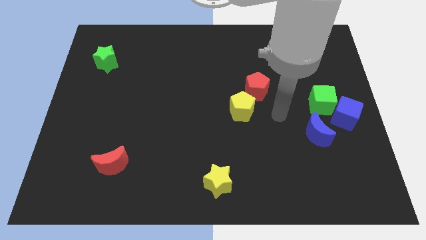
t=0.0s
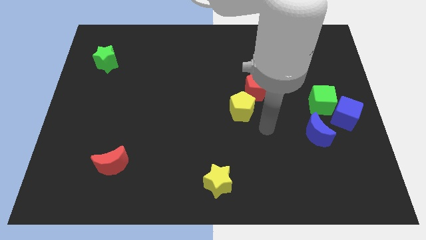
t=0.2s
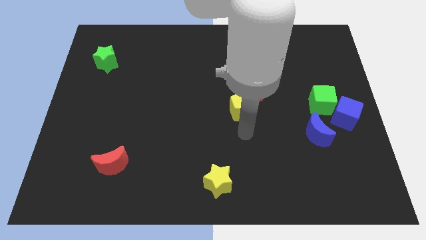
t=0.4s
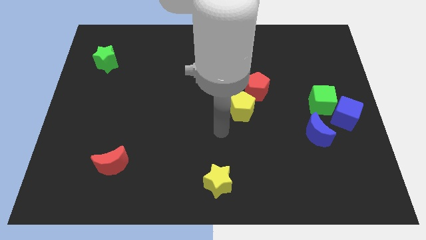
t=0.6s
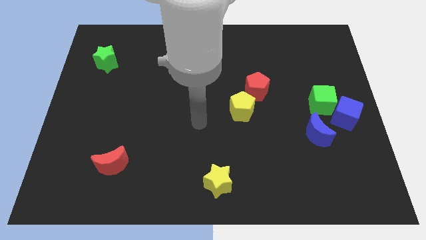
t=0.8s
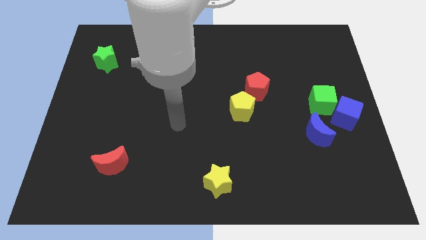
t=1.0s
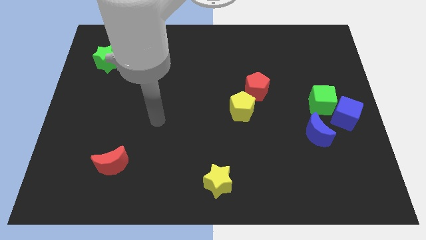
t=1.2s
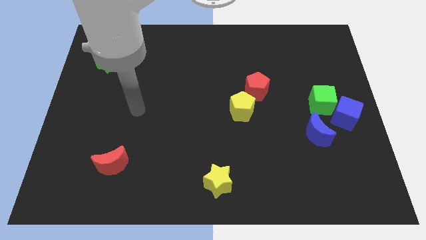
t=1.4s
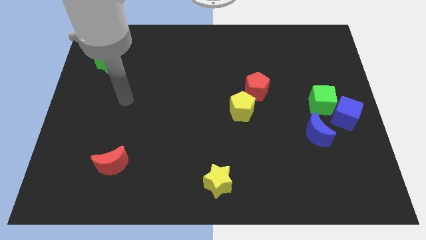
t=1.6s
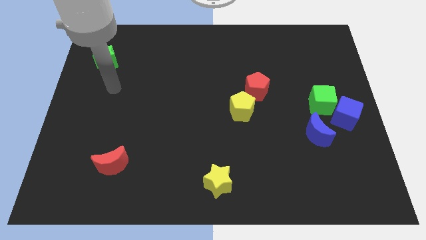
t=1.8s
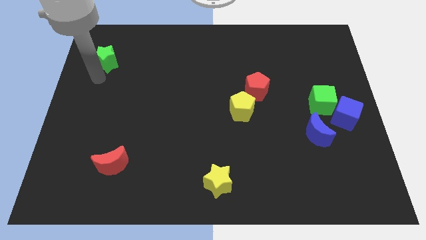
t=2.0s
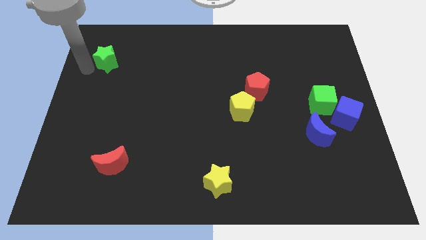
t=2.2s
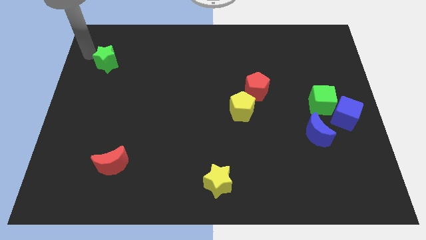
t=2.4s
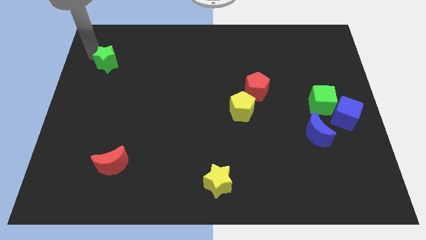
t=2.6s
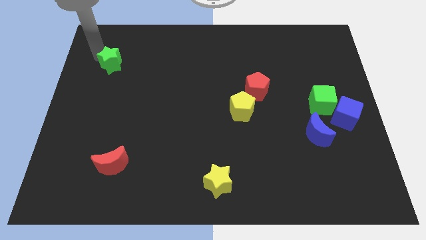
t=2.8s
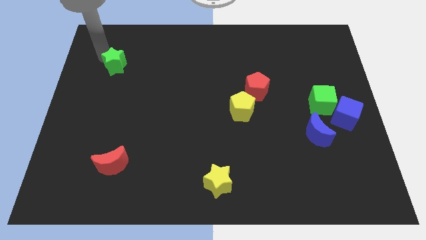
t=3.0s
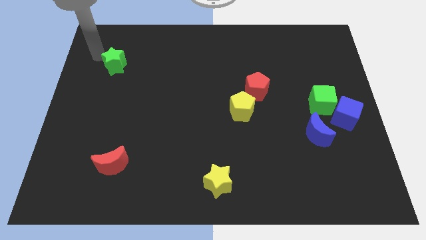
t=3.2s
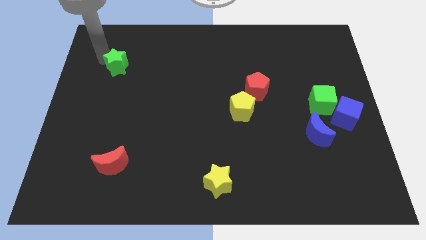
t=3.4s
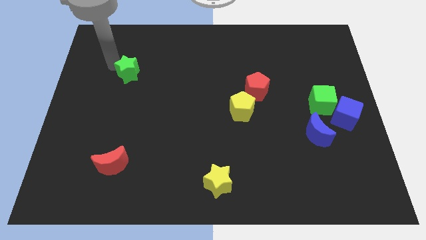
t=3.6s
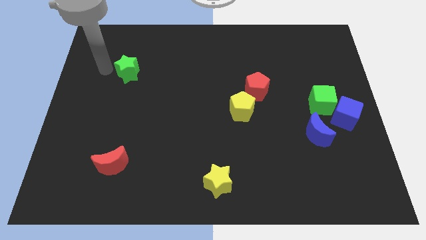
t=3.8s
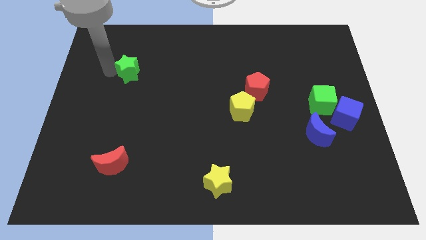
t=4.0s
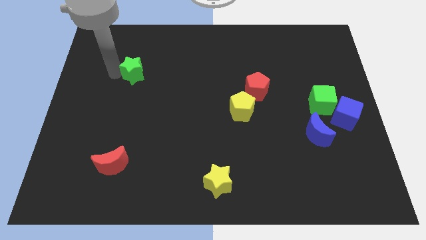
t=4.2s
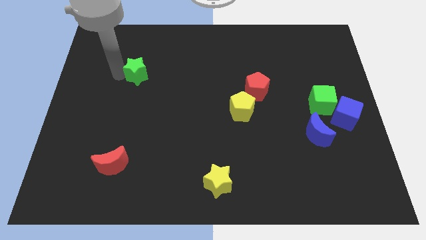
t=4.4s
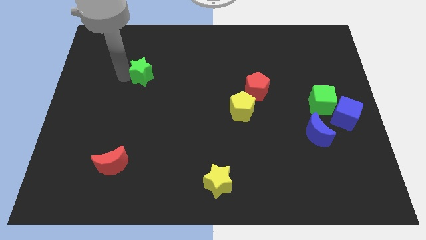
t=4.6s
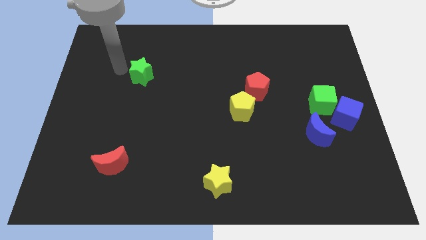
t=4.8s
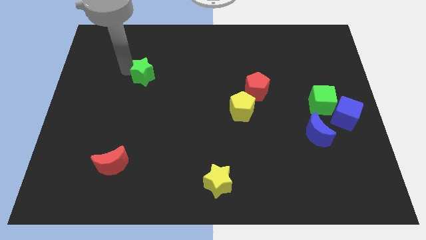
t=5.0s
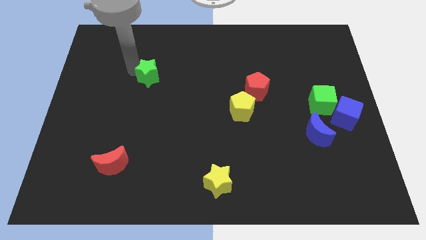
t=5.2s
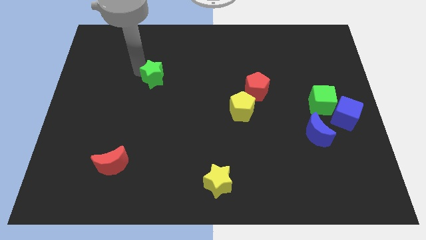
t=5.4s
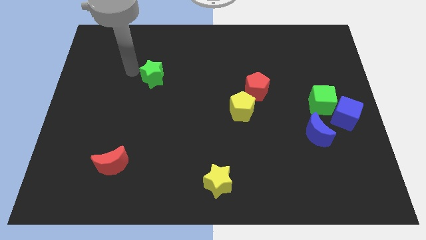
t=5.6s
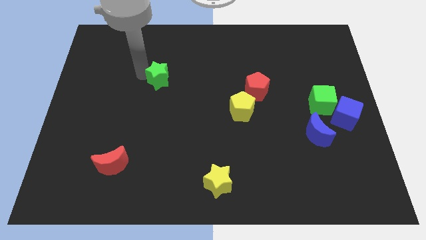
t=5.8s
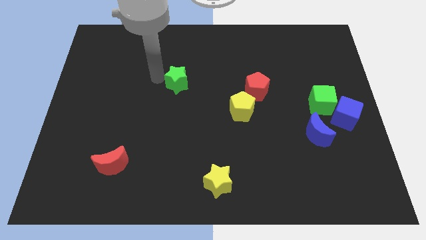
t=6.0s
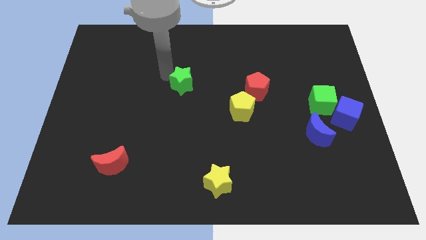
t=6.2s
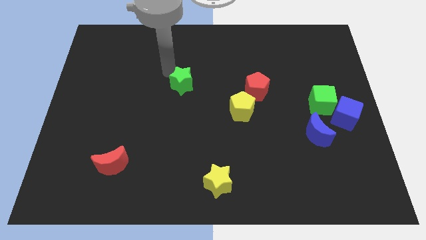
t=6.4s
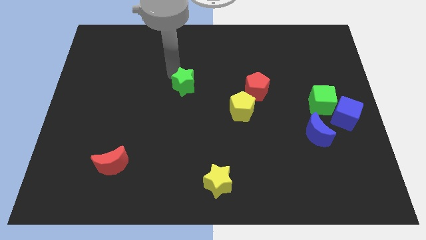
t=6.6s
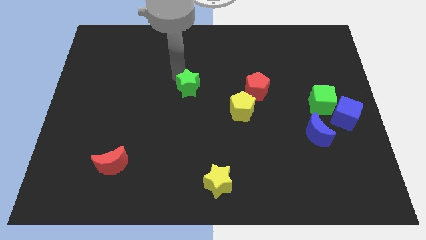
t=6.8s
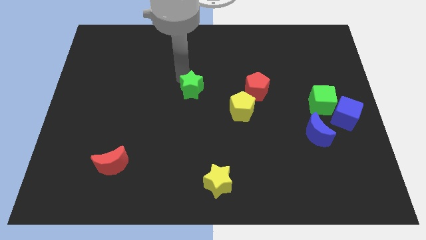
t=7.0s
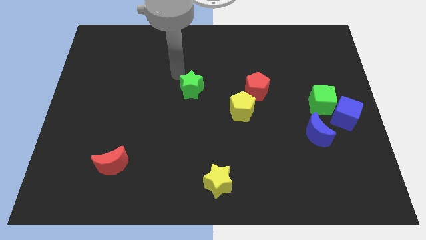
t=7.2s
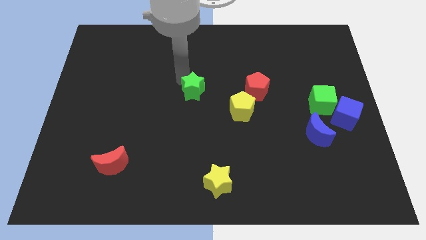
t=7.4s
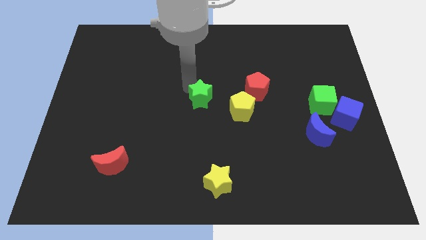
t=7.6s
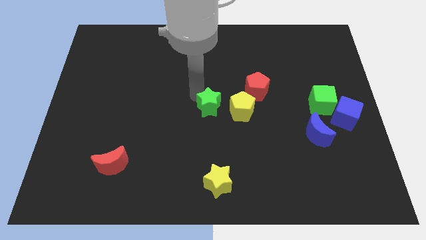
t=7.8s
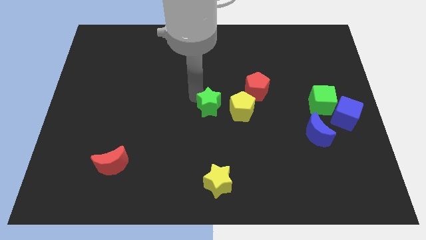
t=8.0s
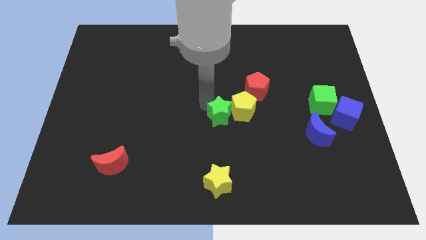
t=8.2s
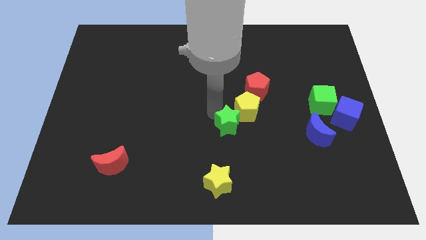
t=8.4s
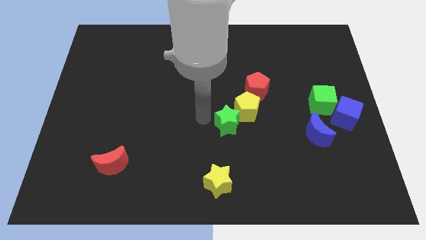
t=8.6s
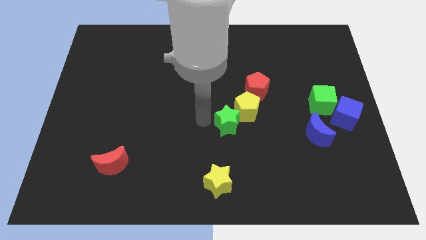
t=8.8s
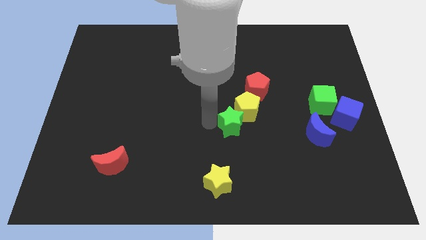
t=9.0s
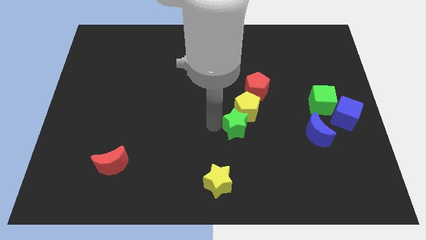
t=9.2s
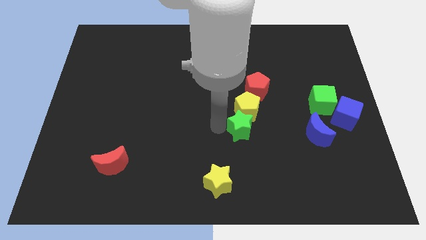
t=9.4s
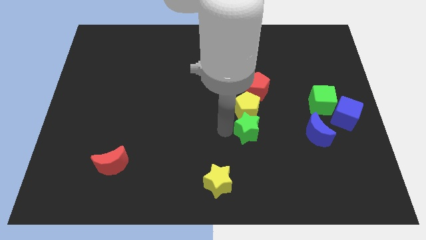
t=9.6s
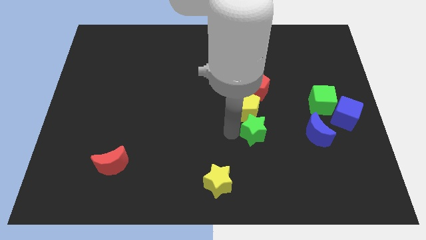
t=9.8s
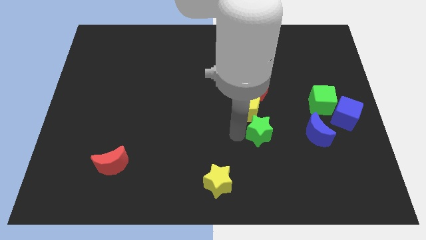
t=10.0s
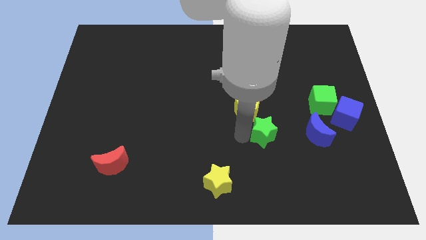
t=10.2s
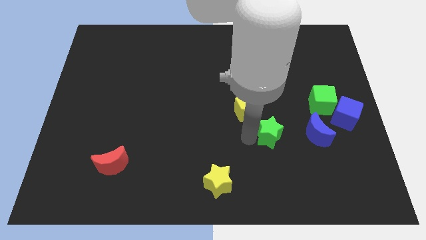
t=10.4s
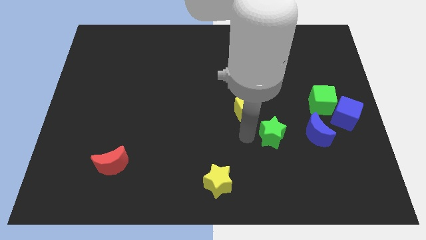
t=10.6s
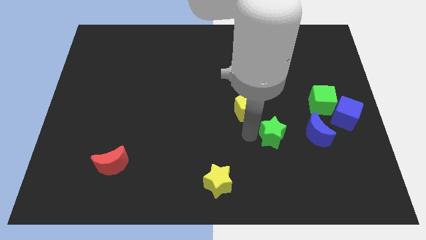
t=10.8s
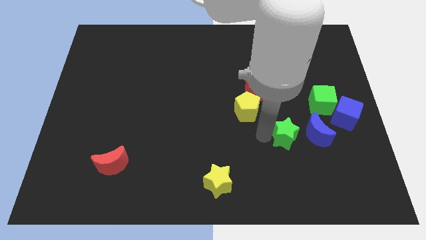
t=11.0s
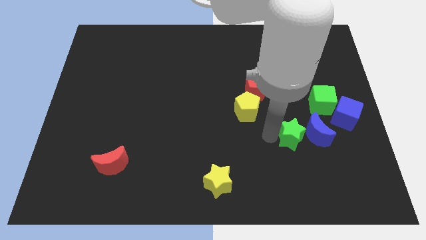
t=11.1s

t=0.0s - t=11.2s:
move the green star close to the blue moon

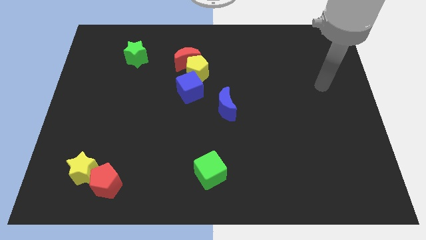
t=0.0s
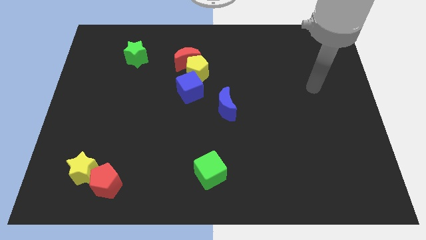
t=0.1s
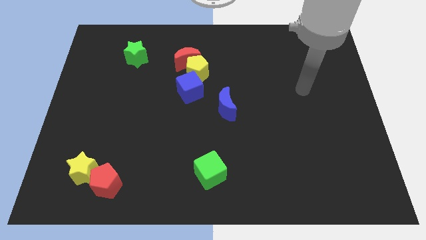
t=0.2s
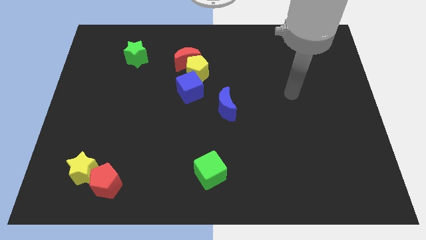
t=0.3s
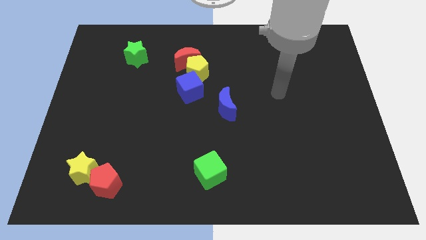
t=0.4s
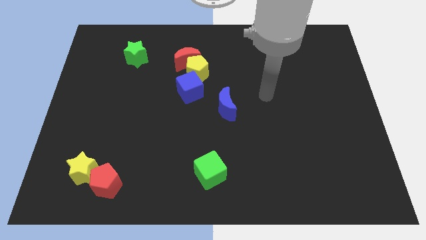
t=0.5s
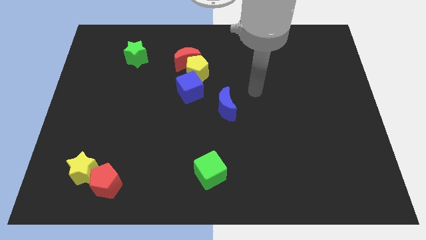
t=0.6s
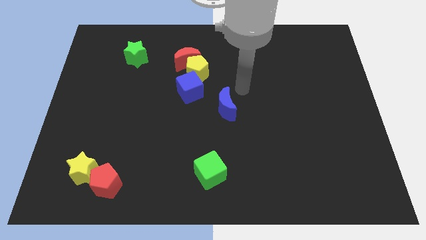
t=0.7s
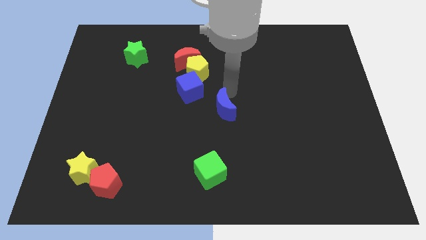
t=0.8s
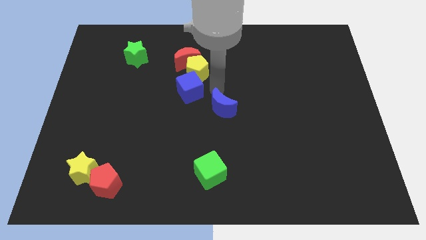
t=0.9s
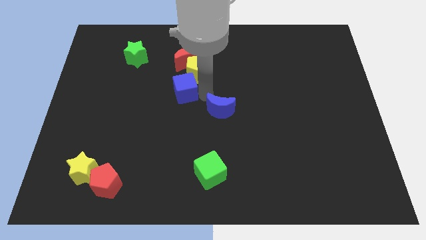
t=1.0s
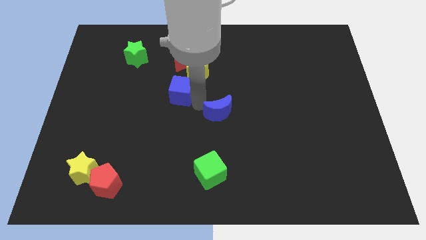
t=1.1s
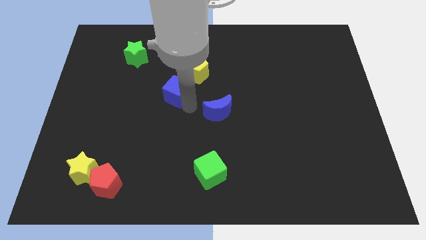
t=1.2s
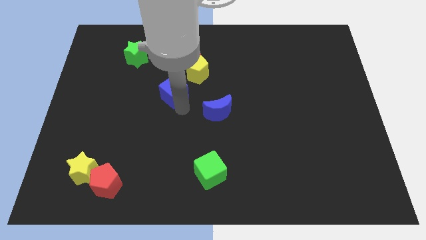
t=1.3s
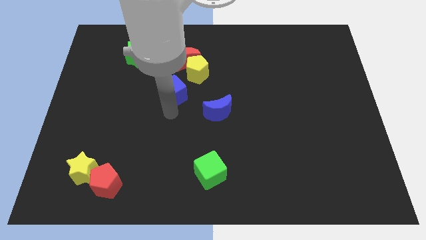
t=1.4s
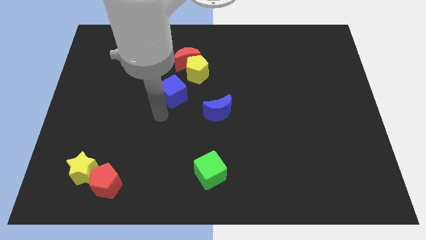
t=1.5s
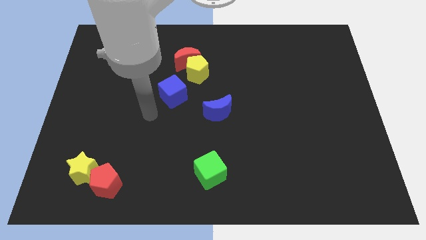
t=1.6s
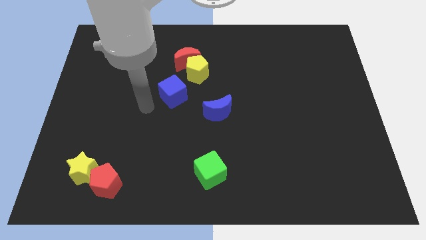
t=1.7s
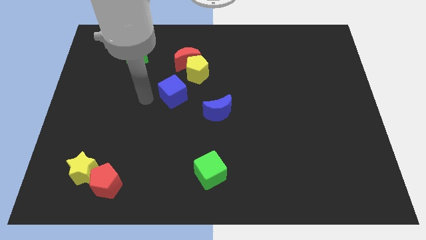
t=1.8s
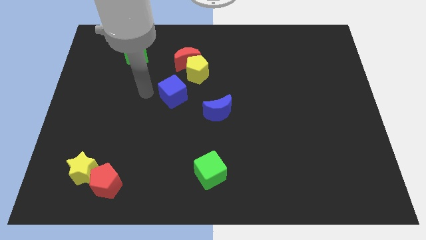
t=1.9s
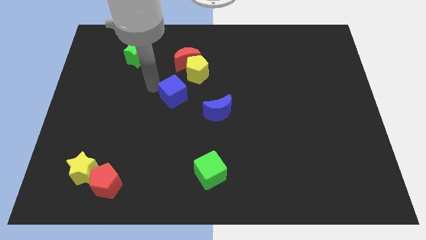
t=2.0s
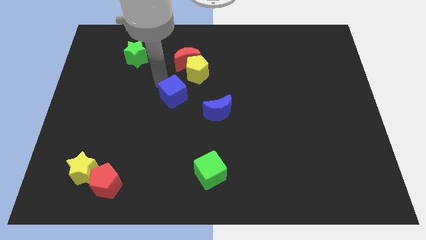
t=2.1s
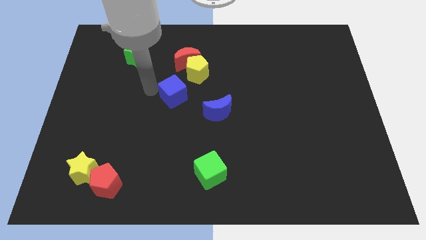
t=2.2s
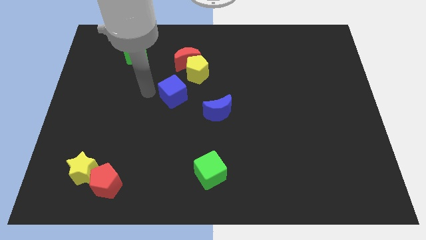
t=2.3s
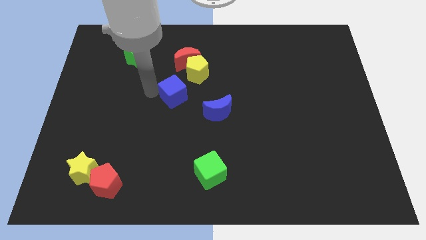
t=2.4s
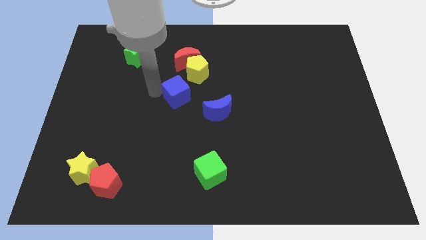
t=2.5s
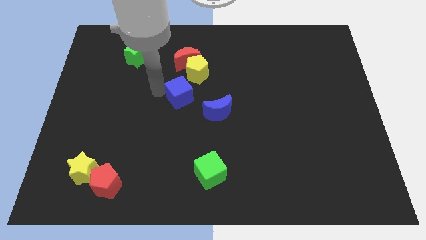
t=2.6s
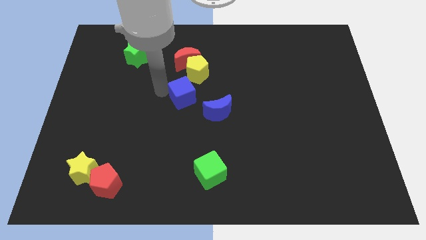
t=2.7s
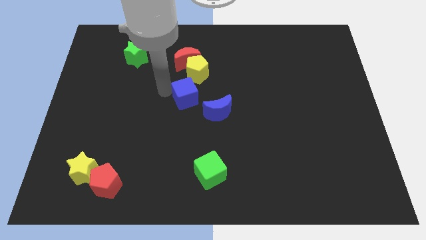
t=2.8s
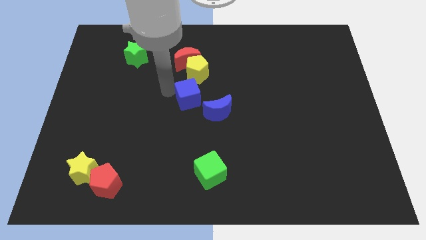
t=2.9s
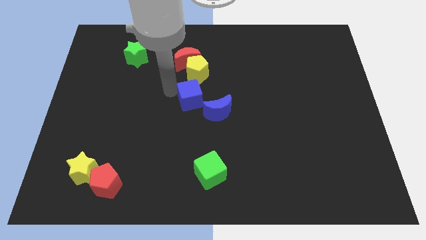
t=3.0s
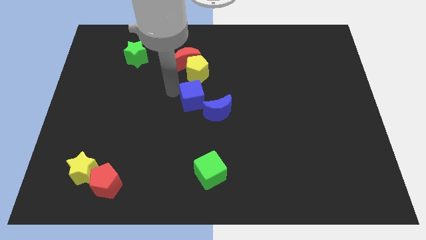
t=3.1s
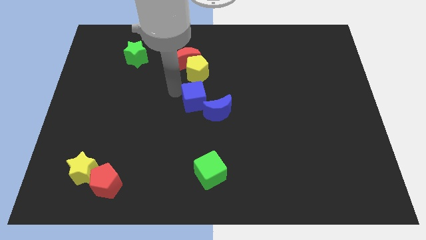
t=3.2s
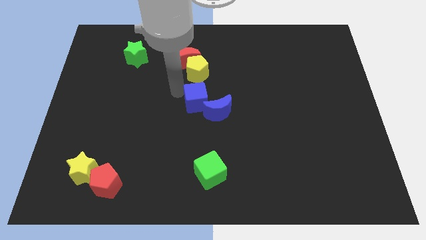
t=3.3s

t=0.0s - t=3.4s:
put the blue cube next to the blue moon
